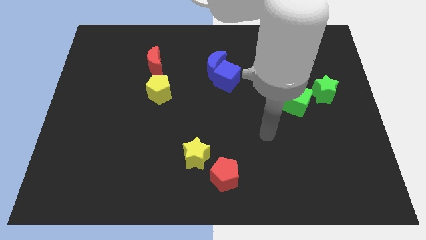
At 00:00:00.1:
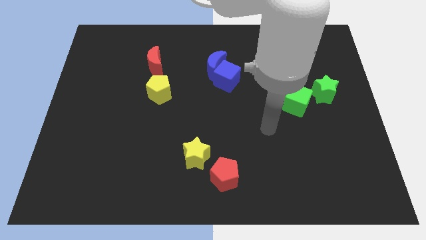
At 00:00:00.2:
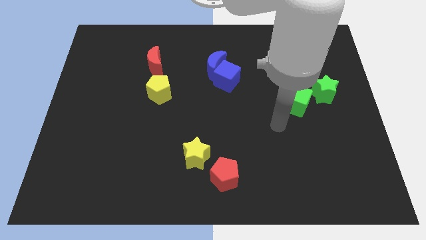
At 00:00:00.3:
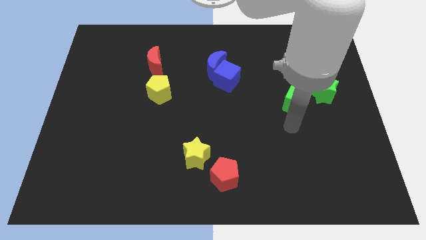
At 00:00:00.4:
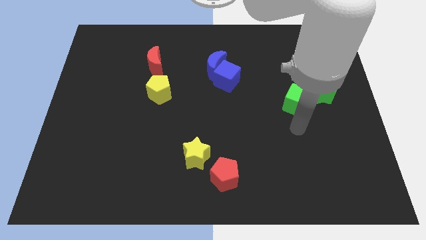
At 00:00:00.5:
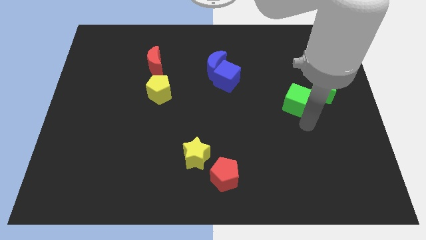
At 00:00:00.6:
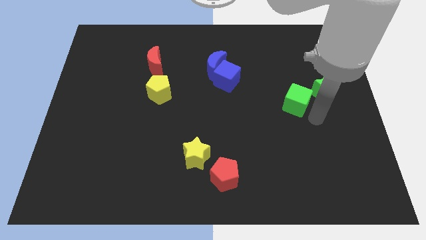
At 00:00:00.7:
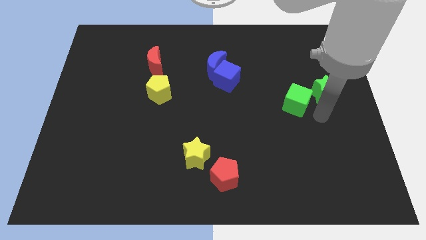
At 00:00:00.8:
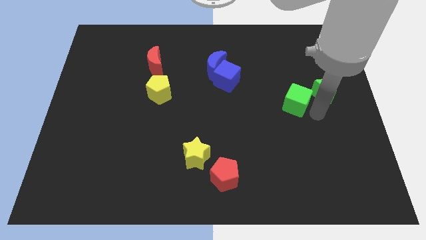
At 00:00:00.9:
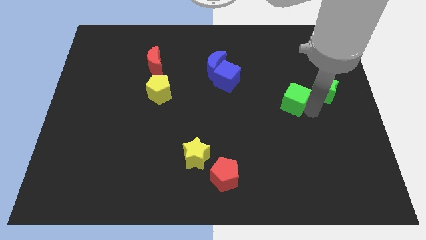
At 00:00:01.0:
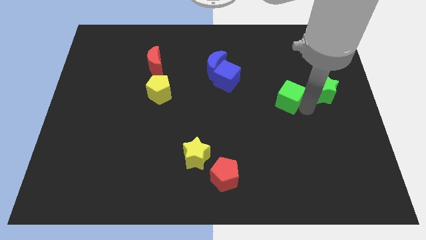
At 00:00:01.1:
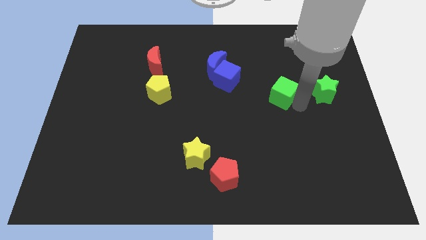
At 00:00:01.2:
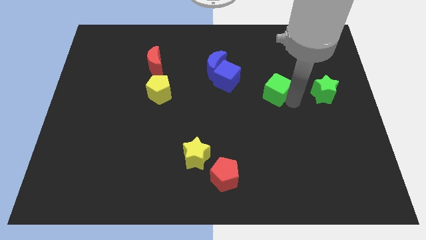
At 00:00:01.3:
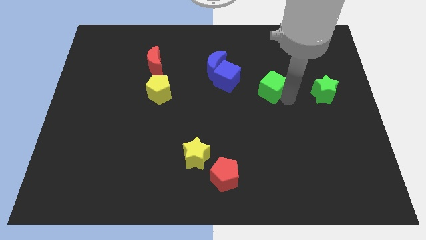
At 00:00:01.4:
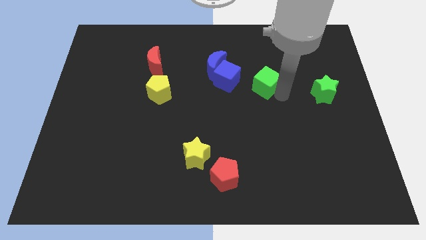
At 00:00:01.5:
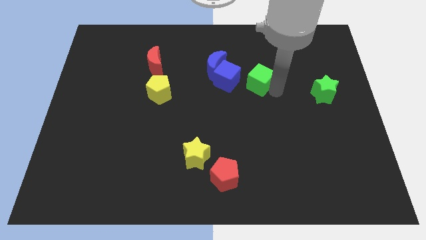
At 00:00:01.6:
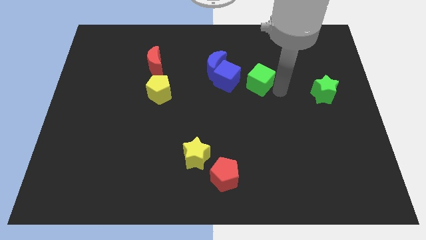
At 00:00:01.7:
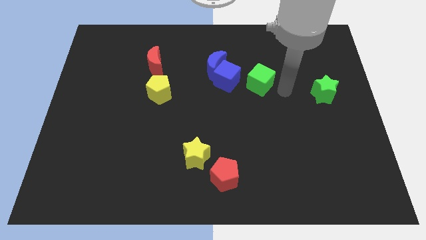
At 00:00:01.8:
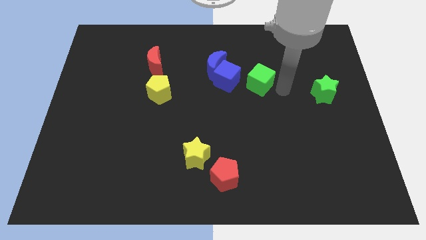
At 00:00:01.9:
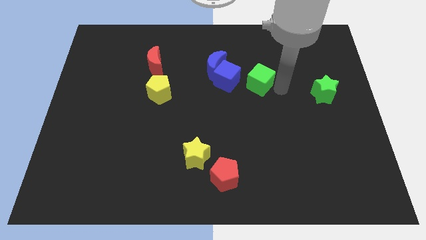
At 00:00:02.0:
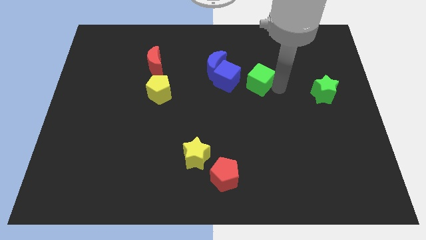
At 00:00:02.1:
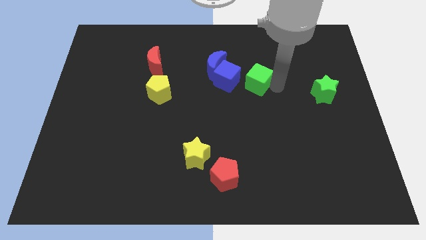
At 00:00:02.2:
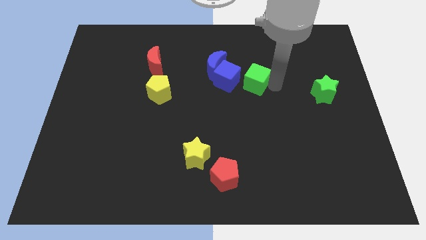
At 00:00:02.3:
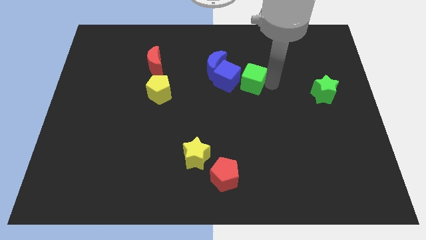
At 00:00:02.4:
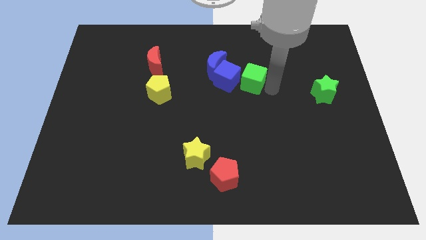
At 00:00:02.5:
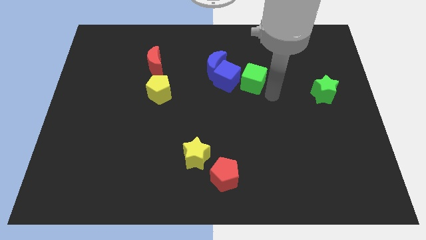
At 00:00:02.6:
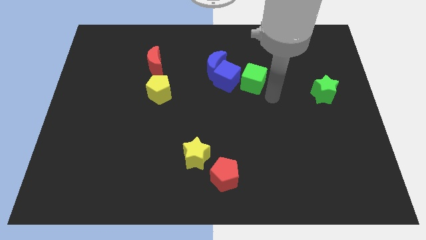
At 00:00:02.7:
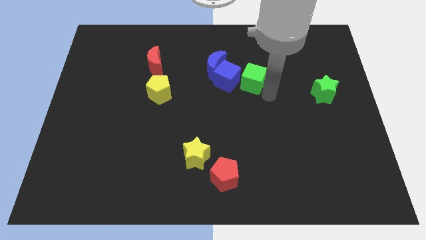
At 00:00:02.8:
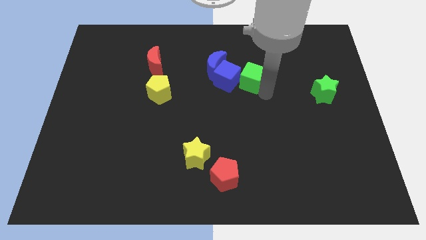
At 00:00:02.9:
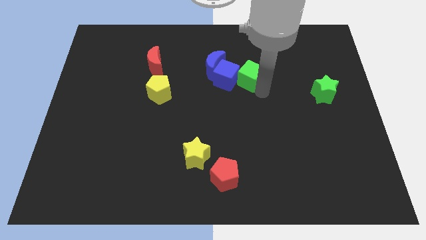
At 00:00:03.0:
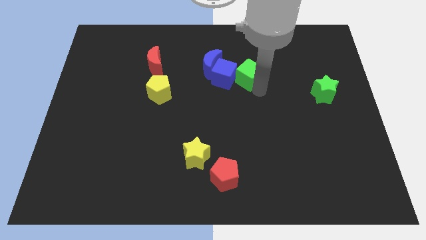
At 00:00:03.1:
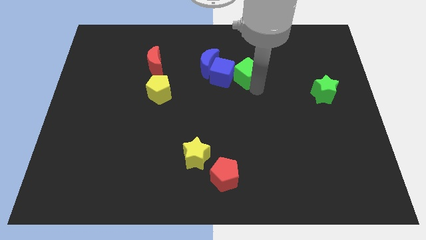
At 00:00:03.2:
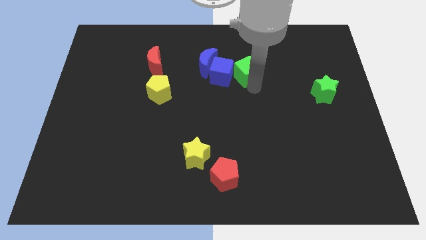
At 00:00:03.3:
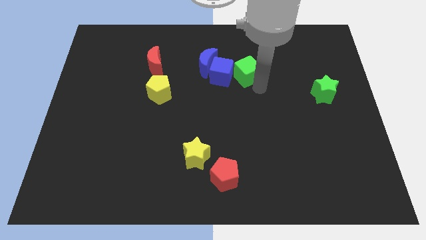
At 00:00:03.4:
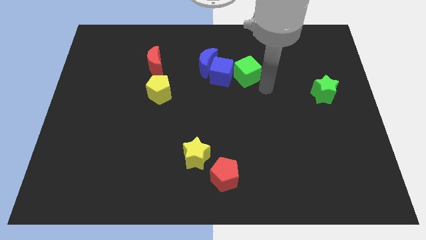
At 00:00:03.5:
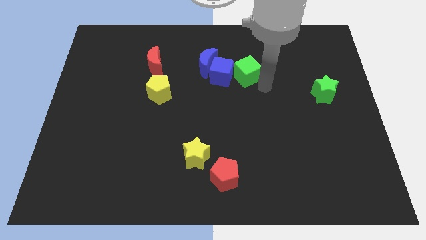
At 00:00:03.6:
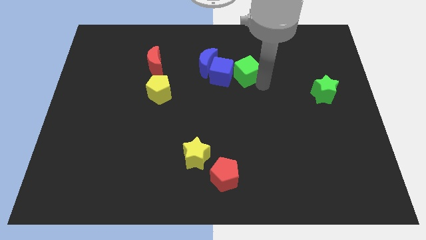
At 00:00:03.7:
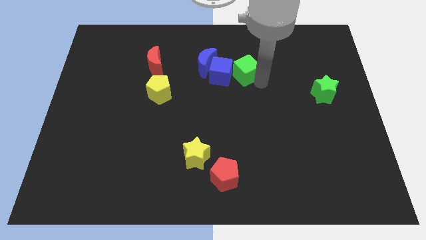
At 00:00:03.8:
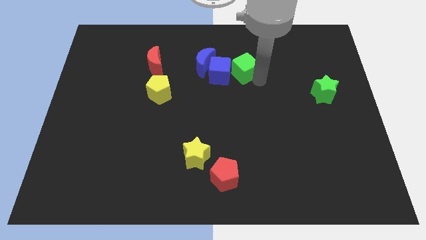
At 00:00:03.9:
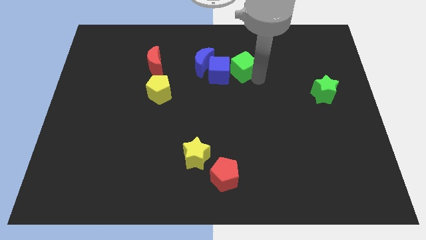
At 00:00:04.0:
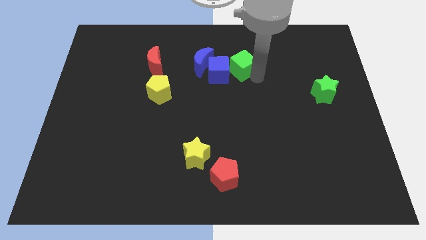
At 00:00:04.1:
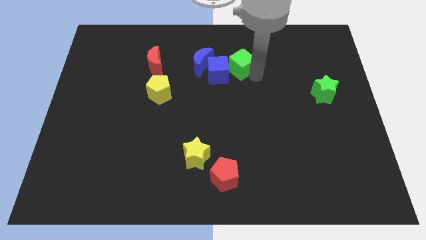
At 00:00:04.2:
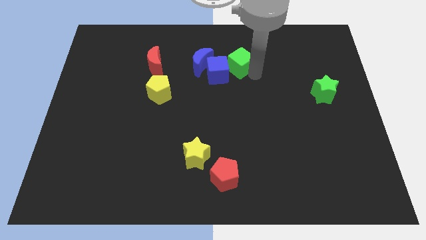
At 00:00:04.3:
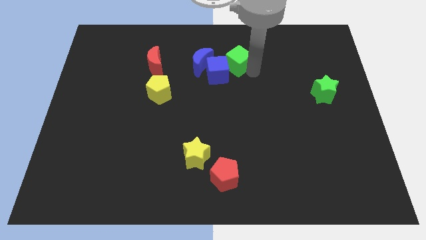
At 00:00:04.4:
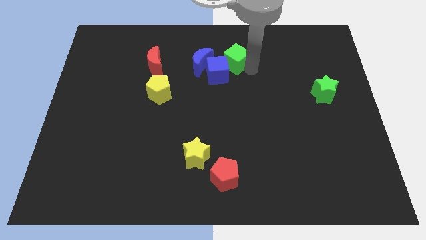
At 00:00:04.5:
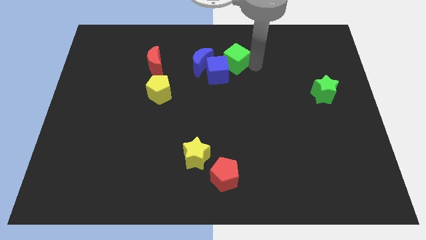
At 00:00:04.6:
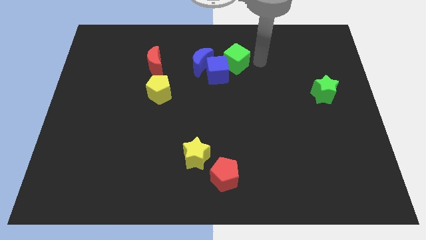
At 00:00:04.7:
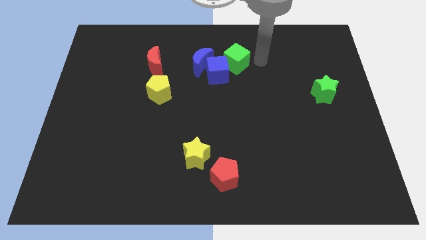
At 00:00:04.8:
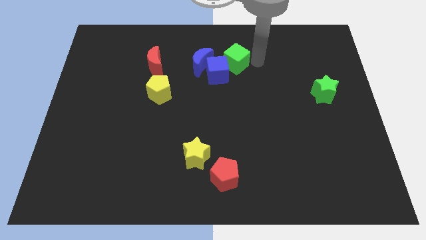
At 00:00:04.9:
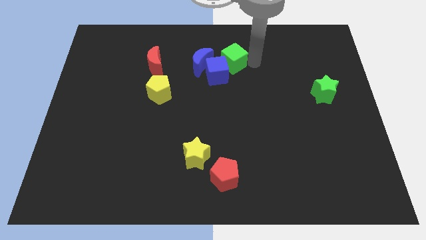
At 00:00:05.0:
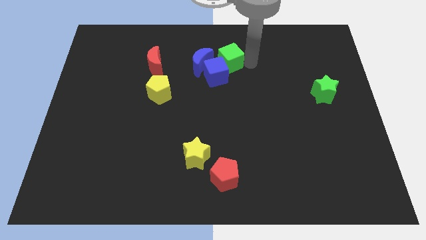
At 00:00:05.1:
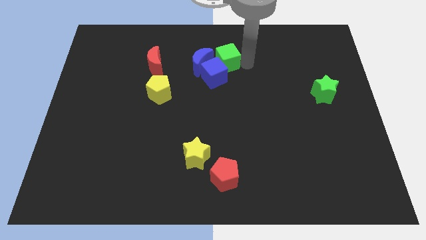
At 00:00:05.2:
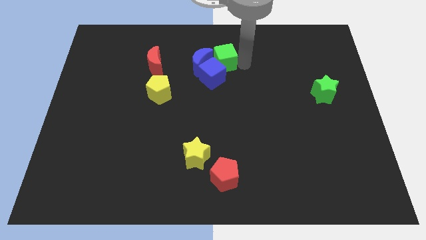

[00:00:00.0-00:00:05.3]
push the green cube to the blue moon

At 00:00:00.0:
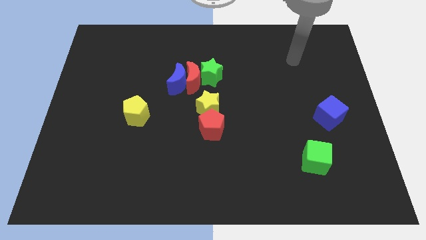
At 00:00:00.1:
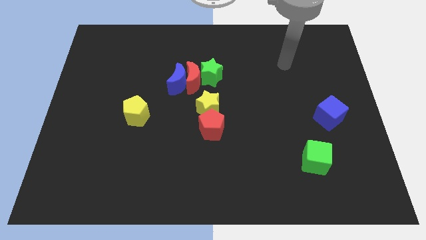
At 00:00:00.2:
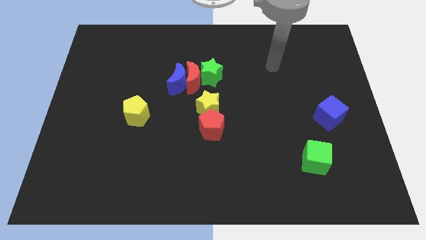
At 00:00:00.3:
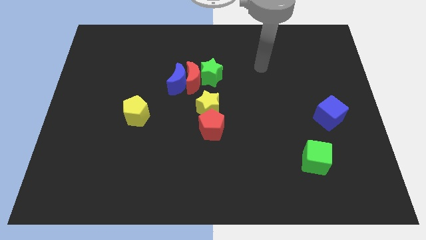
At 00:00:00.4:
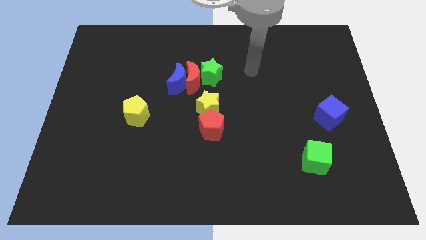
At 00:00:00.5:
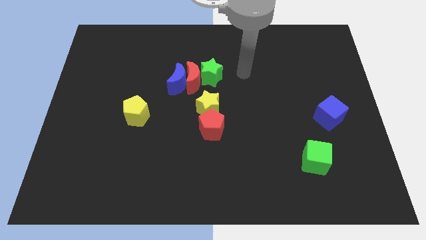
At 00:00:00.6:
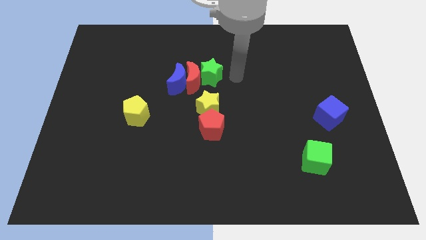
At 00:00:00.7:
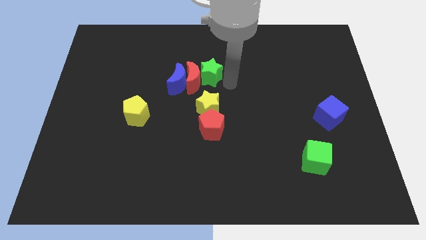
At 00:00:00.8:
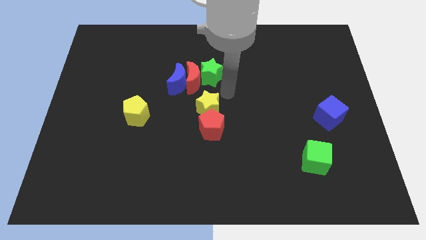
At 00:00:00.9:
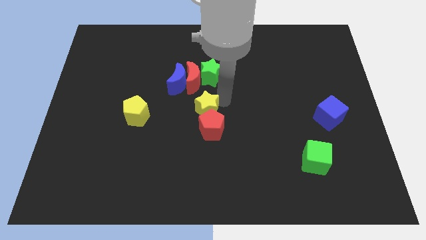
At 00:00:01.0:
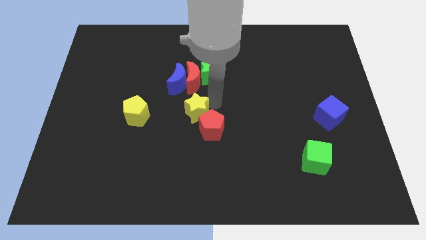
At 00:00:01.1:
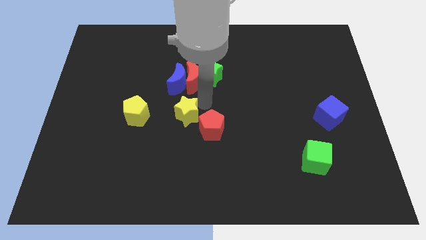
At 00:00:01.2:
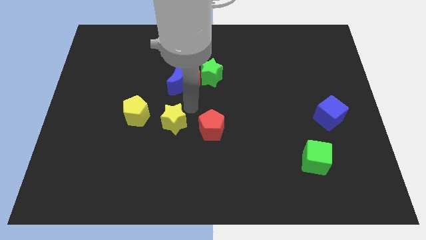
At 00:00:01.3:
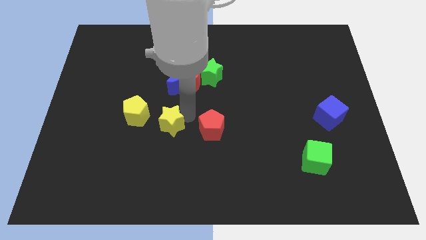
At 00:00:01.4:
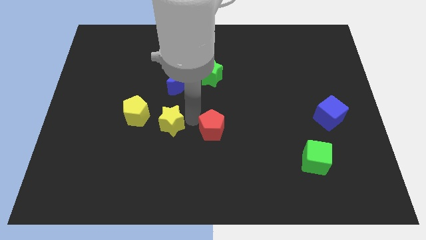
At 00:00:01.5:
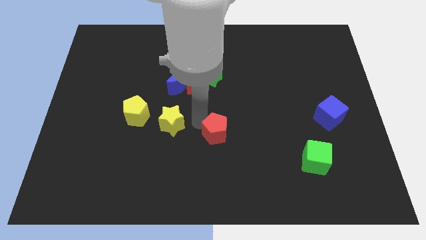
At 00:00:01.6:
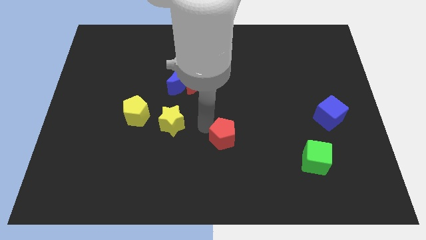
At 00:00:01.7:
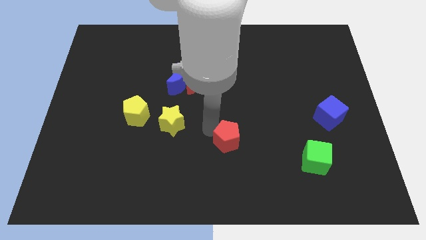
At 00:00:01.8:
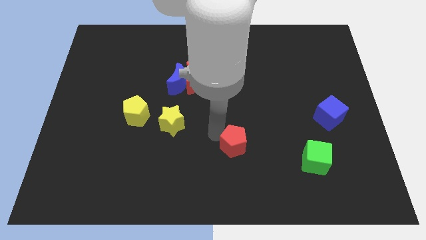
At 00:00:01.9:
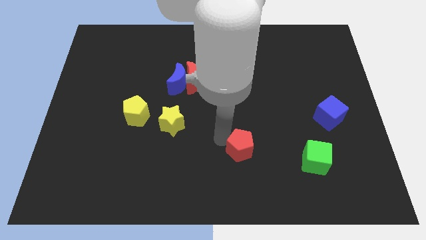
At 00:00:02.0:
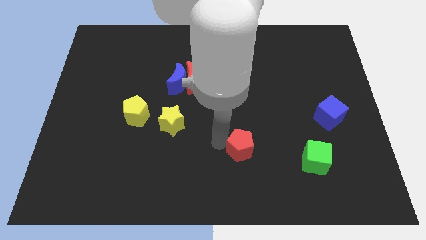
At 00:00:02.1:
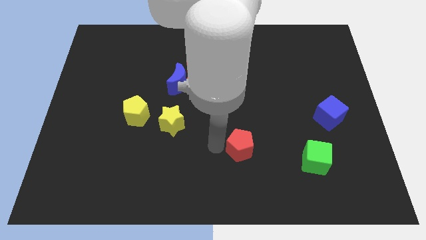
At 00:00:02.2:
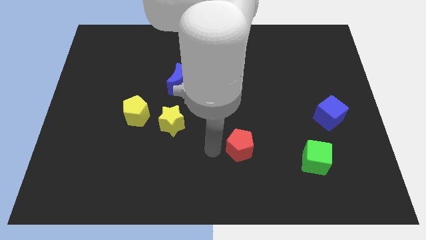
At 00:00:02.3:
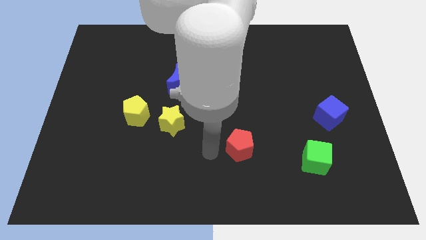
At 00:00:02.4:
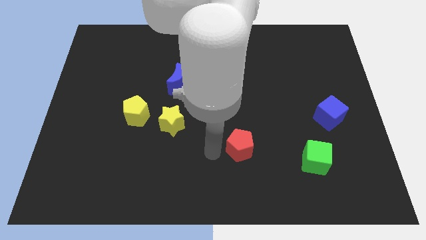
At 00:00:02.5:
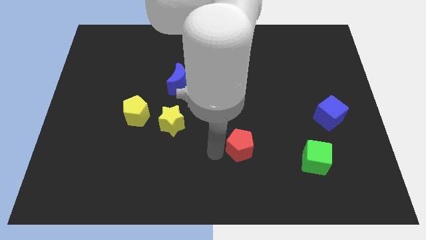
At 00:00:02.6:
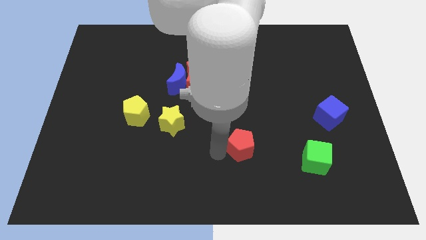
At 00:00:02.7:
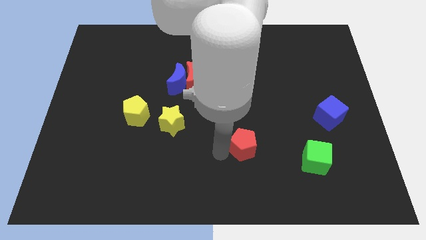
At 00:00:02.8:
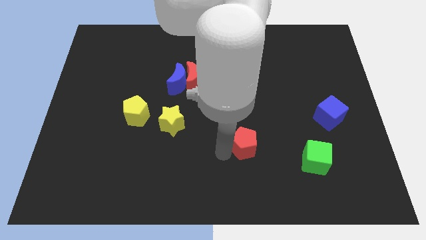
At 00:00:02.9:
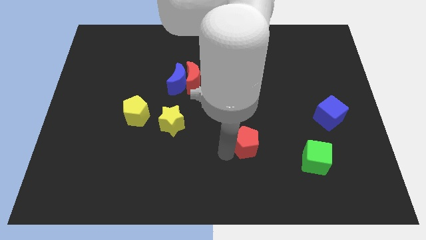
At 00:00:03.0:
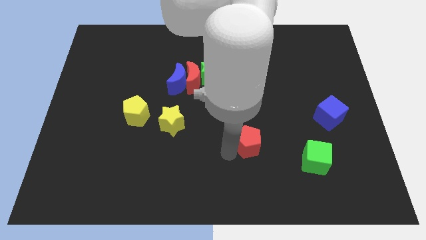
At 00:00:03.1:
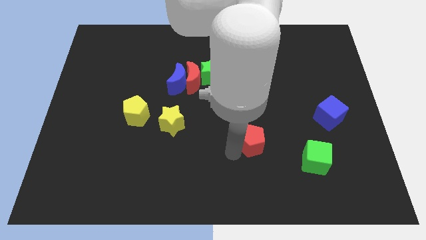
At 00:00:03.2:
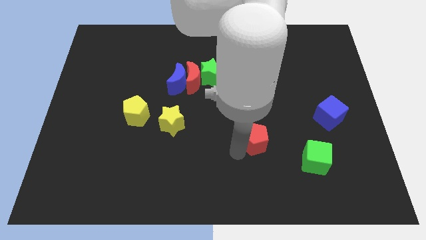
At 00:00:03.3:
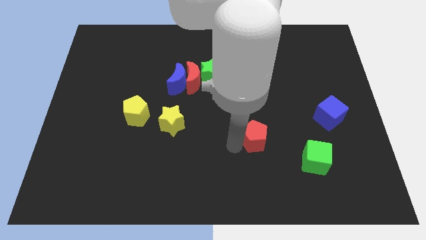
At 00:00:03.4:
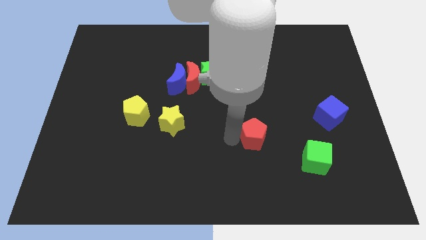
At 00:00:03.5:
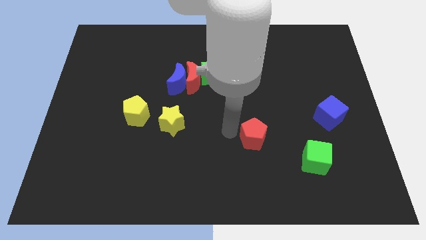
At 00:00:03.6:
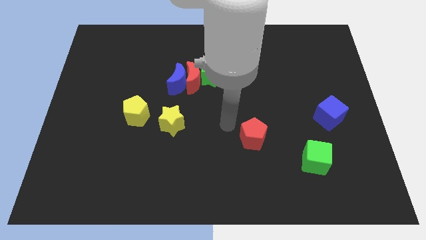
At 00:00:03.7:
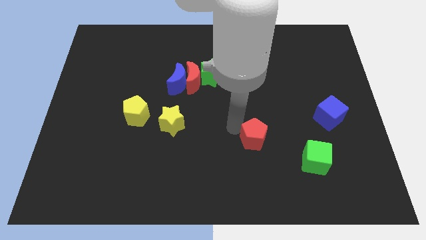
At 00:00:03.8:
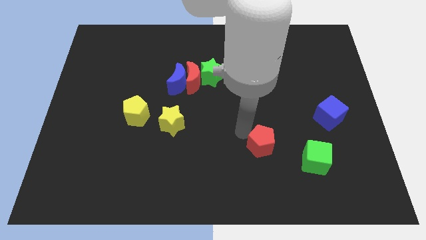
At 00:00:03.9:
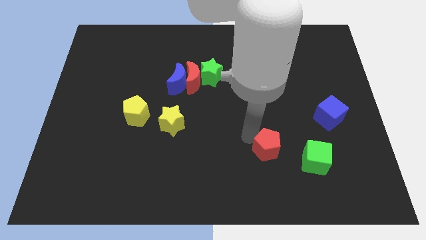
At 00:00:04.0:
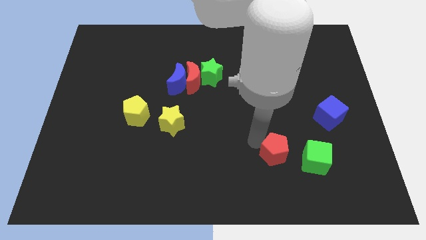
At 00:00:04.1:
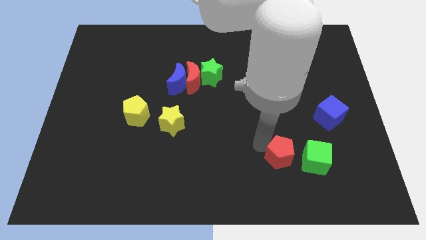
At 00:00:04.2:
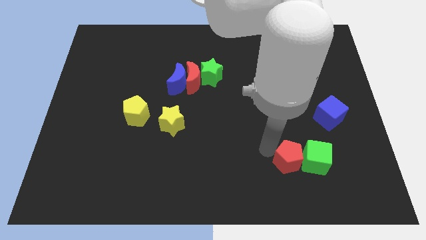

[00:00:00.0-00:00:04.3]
slide the red pentagon to the green cube
